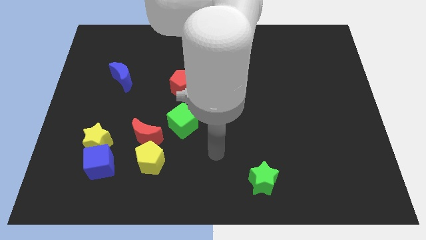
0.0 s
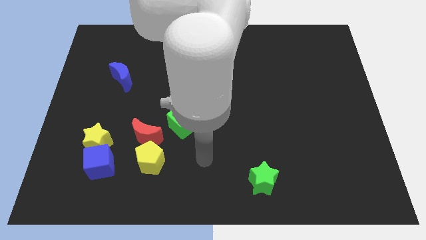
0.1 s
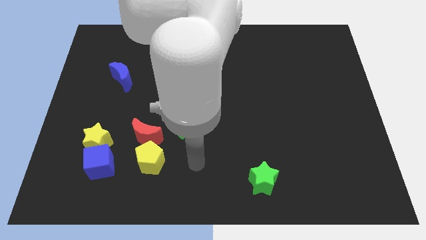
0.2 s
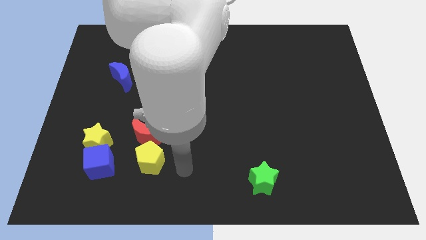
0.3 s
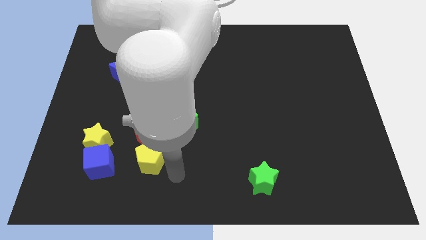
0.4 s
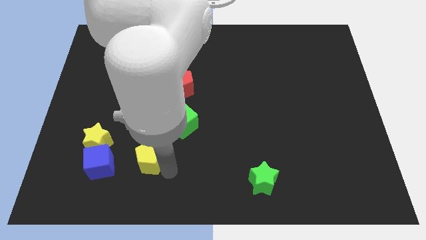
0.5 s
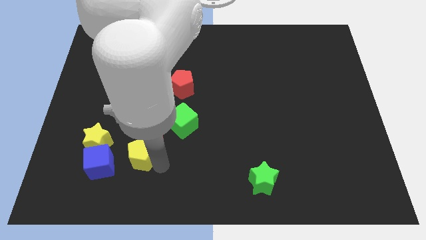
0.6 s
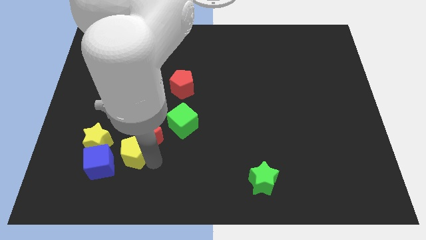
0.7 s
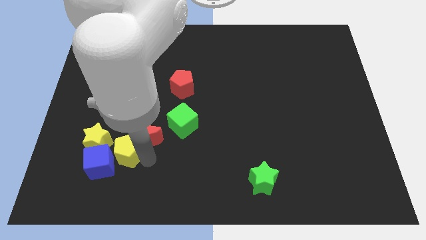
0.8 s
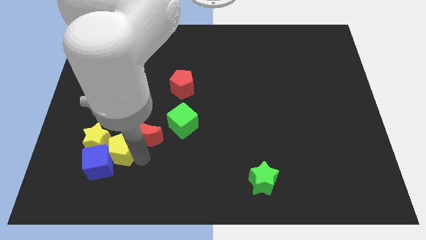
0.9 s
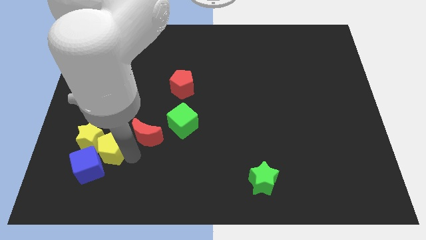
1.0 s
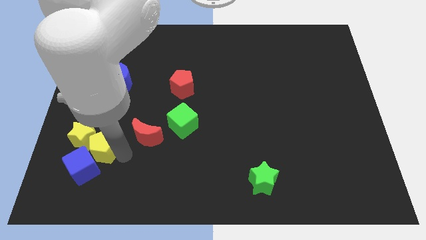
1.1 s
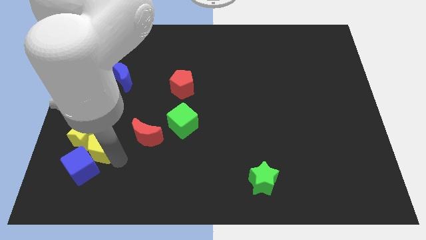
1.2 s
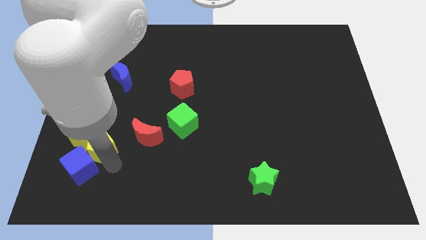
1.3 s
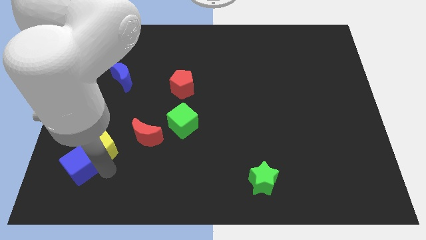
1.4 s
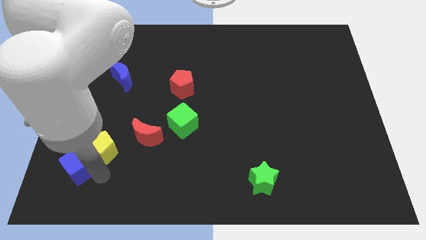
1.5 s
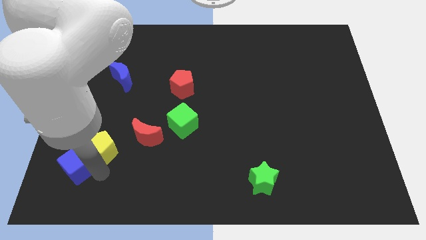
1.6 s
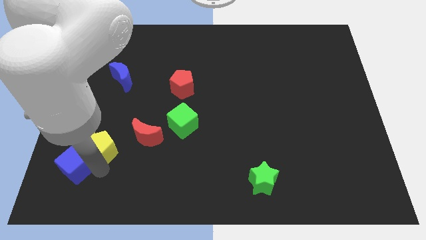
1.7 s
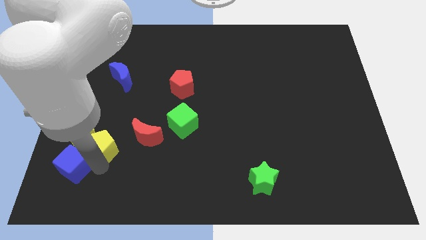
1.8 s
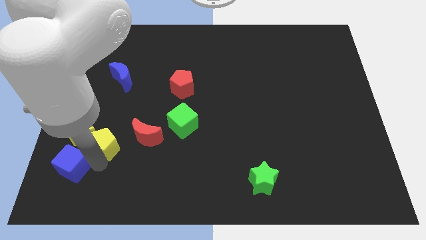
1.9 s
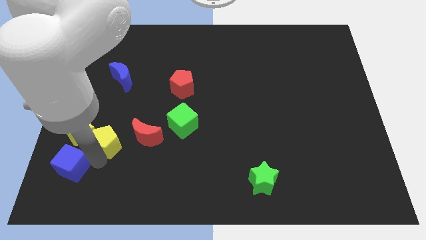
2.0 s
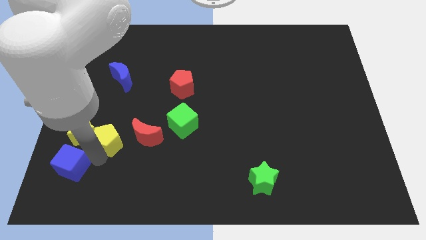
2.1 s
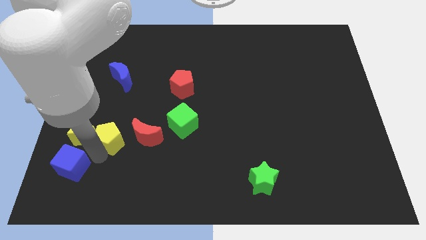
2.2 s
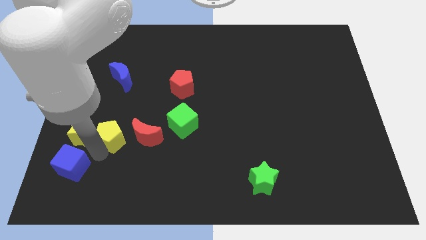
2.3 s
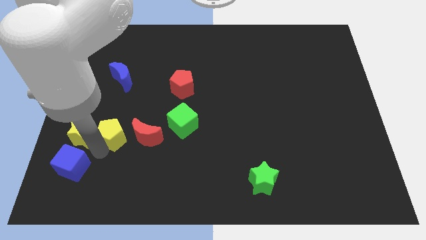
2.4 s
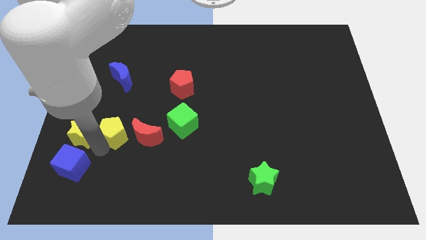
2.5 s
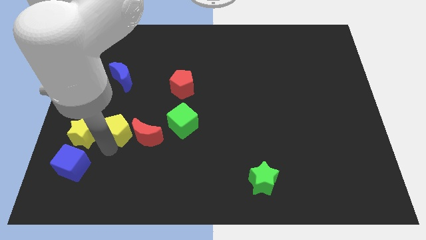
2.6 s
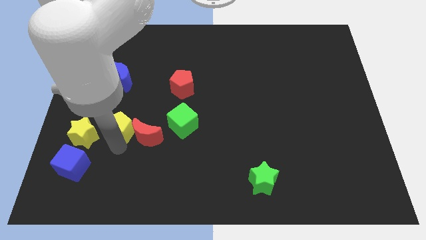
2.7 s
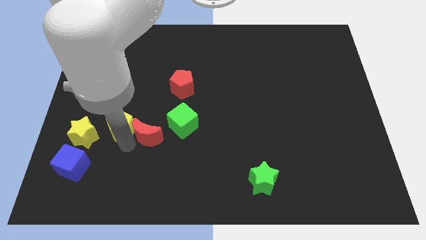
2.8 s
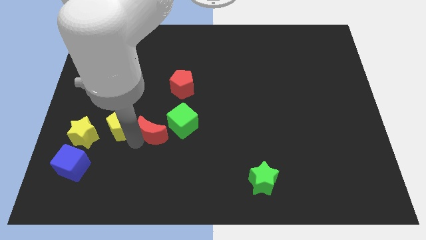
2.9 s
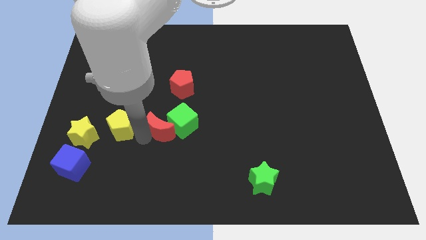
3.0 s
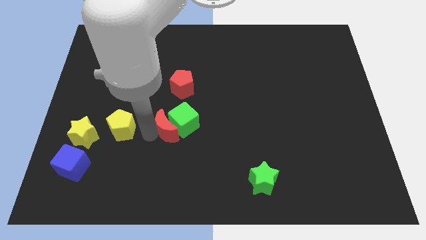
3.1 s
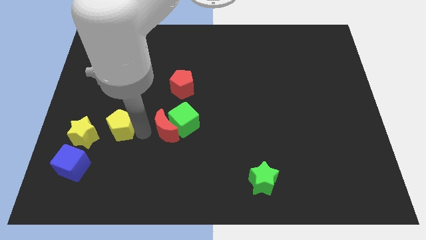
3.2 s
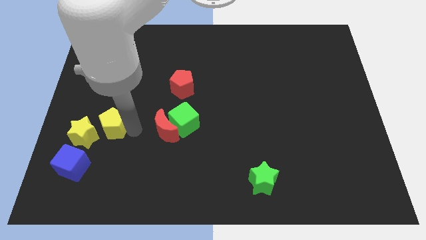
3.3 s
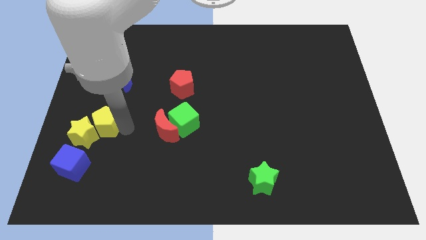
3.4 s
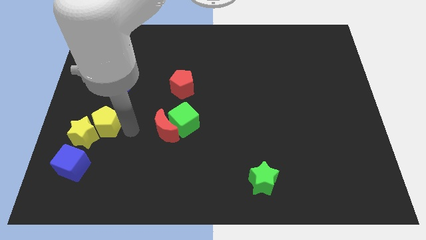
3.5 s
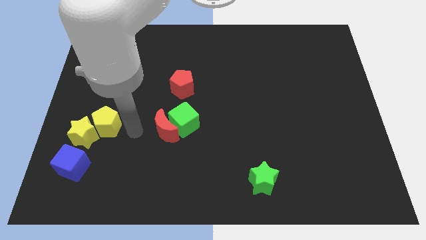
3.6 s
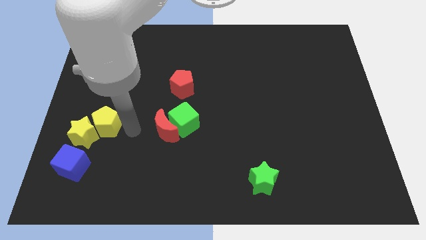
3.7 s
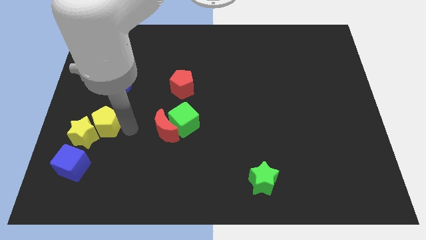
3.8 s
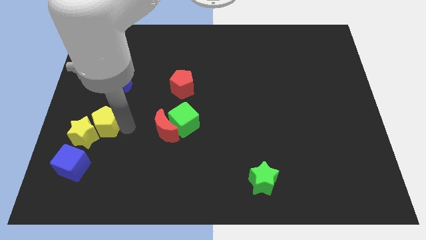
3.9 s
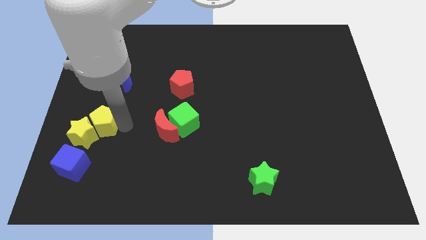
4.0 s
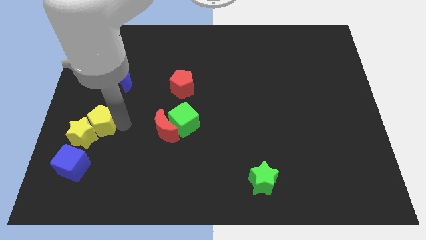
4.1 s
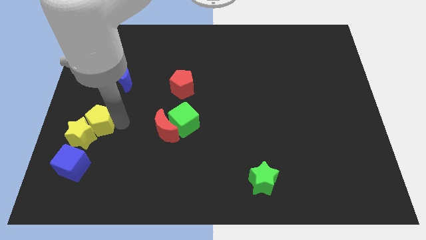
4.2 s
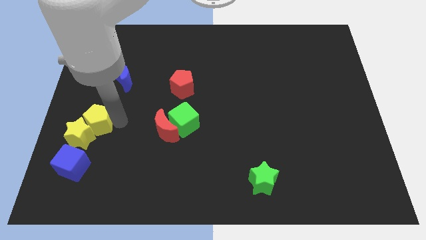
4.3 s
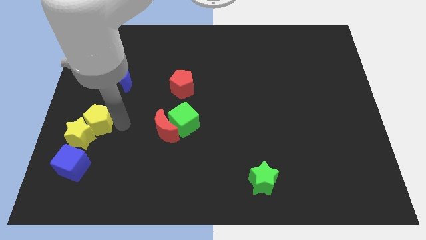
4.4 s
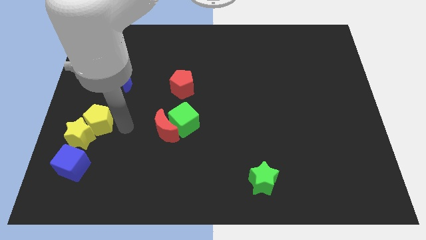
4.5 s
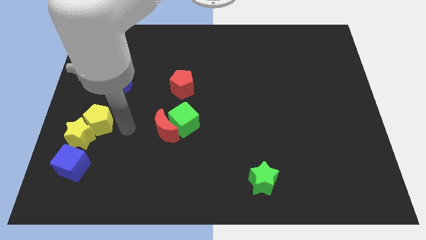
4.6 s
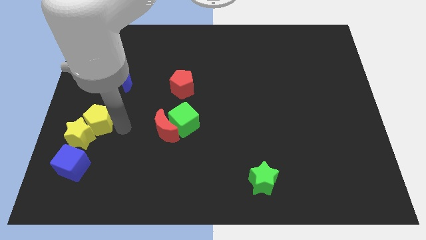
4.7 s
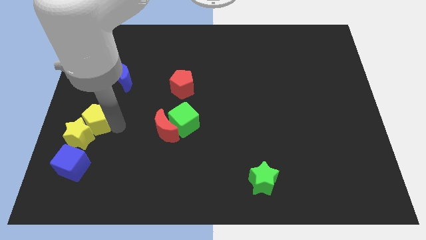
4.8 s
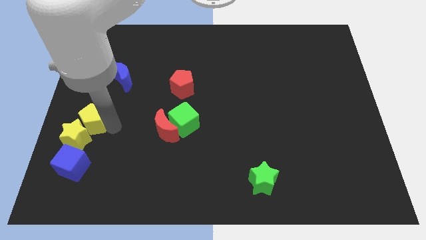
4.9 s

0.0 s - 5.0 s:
move the yellow pentagon to the left side of the board

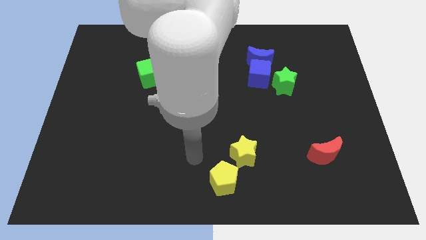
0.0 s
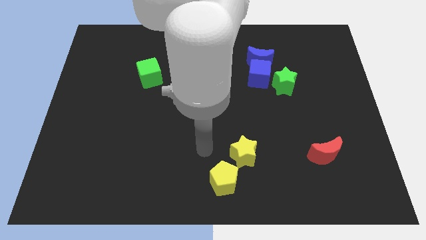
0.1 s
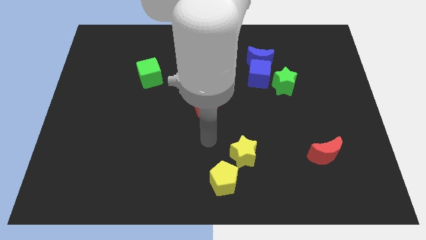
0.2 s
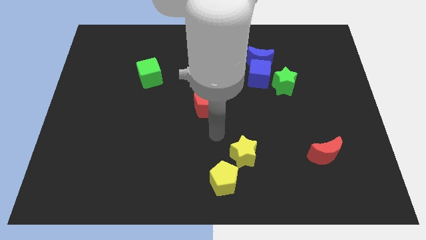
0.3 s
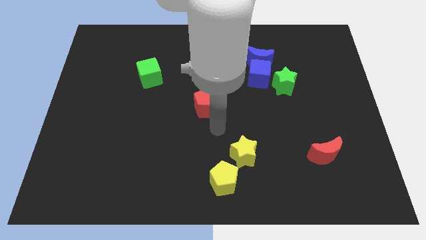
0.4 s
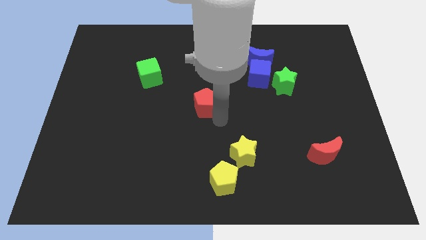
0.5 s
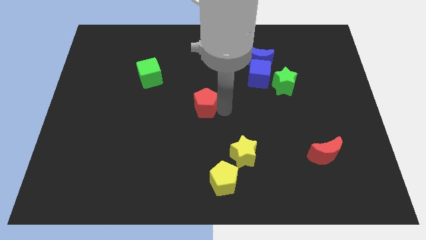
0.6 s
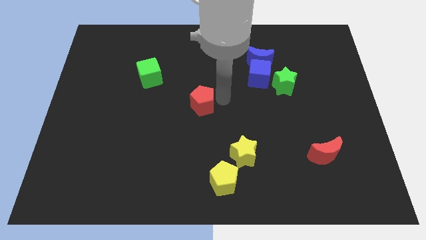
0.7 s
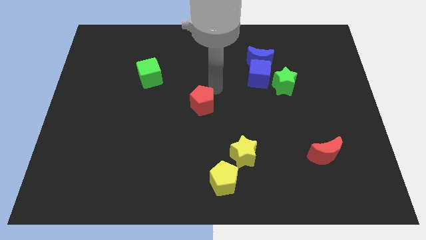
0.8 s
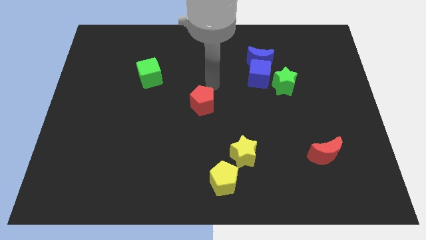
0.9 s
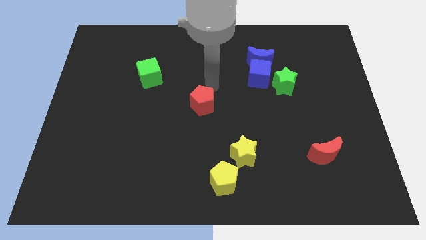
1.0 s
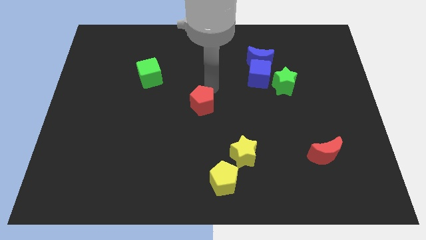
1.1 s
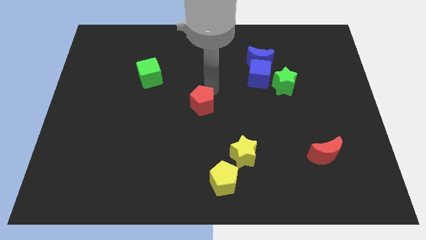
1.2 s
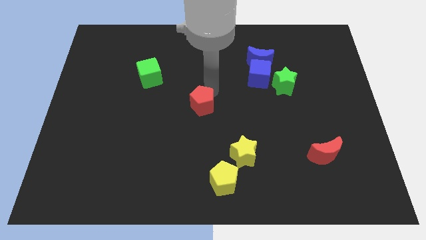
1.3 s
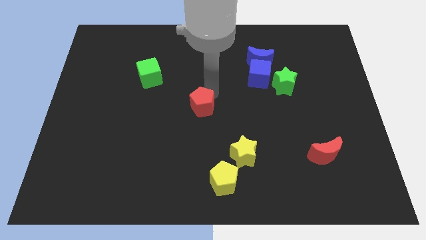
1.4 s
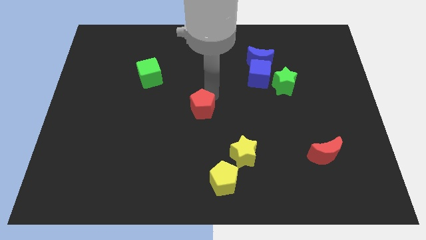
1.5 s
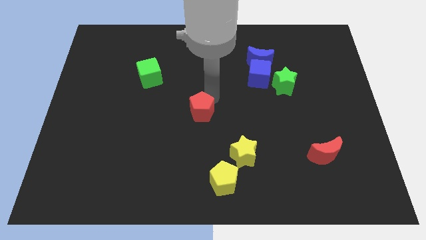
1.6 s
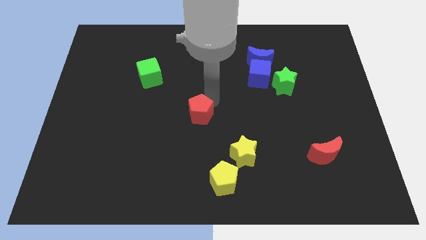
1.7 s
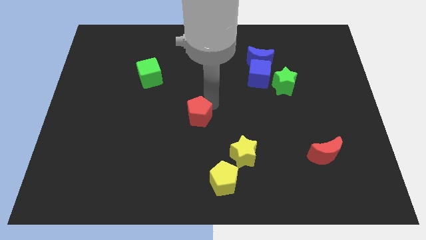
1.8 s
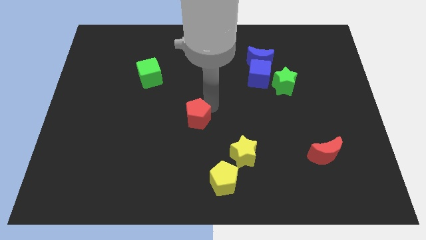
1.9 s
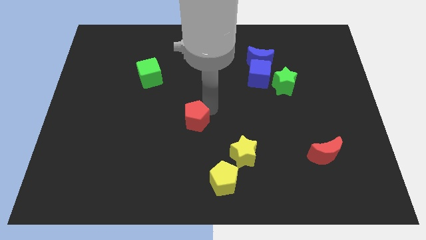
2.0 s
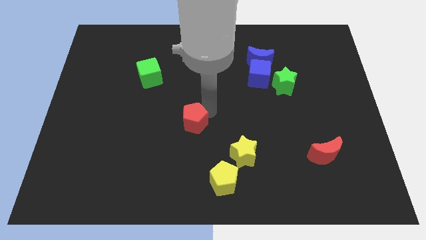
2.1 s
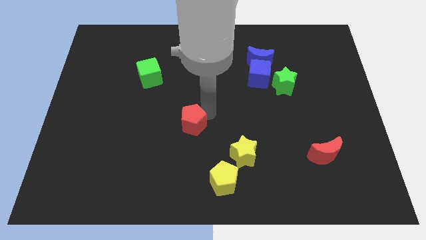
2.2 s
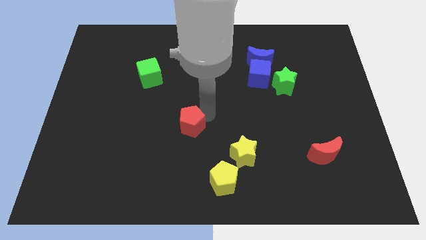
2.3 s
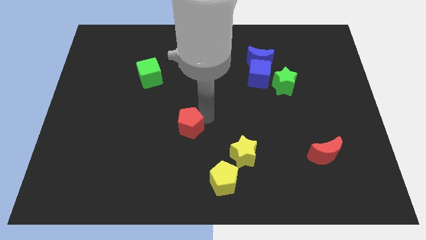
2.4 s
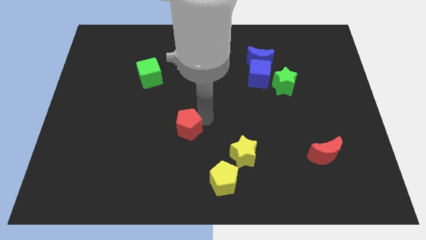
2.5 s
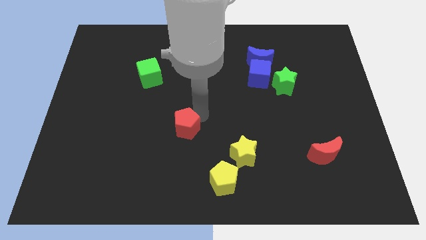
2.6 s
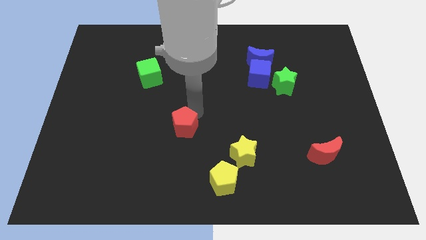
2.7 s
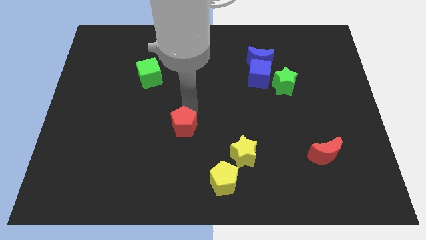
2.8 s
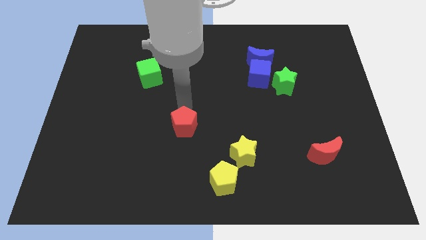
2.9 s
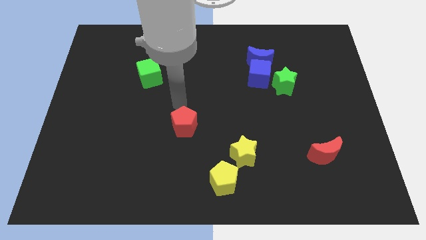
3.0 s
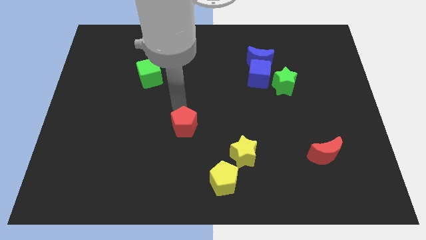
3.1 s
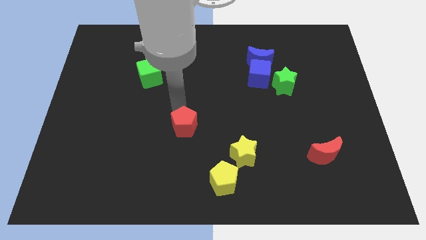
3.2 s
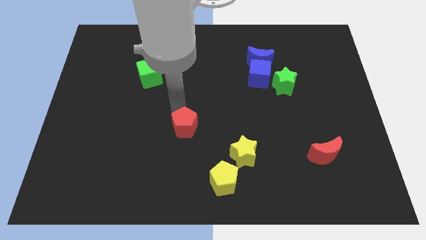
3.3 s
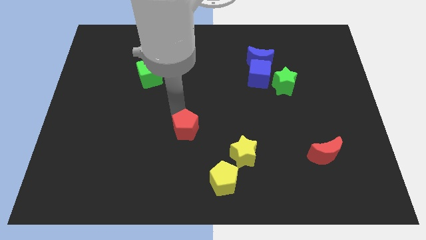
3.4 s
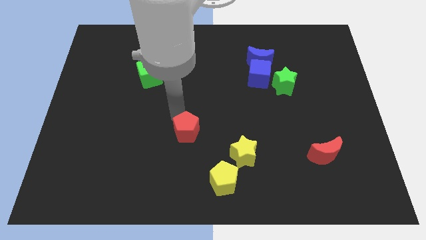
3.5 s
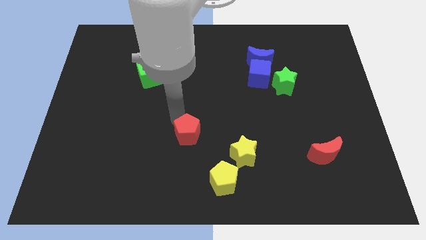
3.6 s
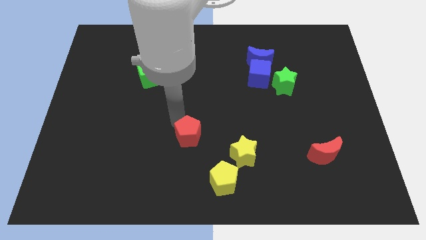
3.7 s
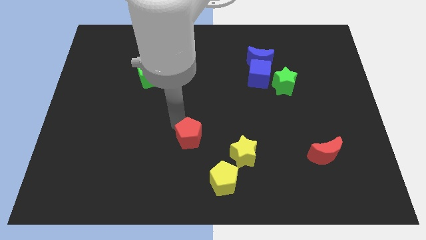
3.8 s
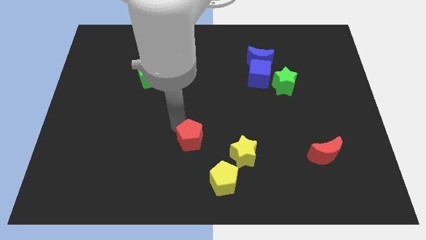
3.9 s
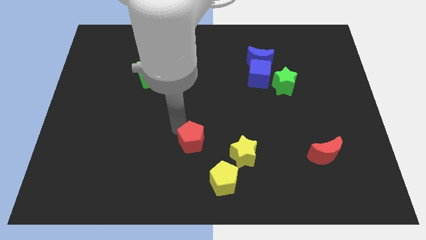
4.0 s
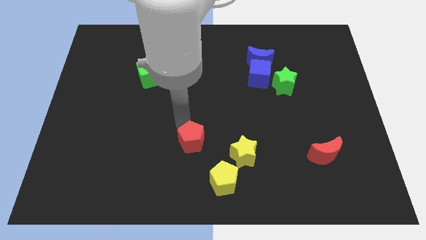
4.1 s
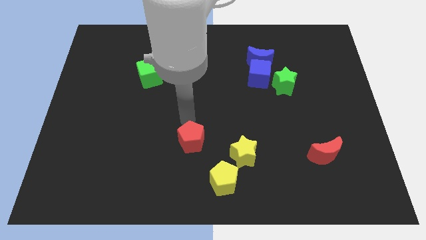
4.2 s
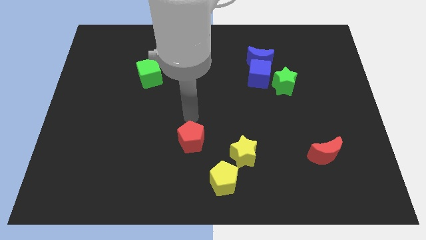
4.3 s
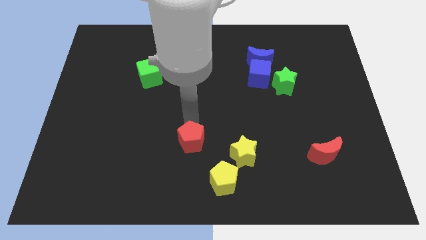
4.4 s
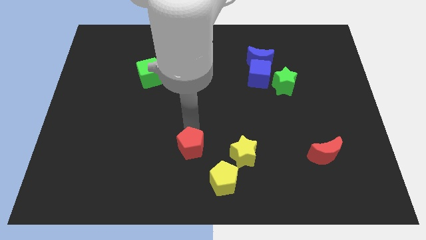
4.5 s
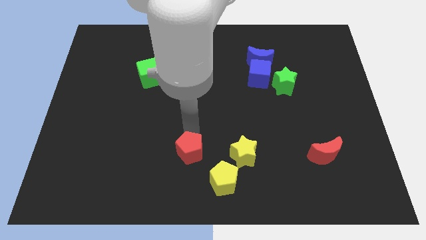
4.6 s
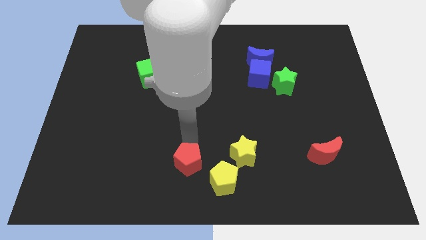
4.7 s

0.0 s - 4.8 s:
slide the red pentagon to the bottom side
